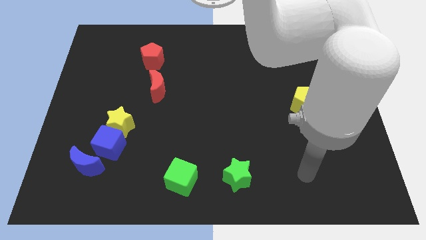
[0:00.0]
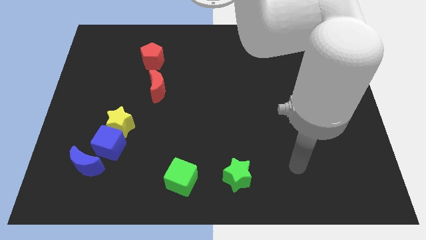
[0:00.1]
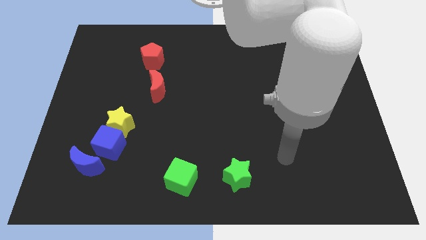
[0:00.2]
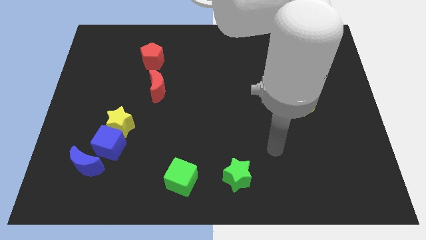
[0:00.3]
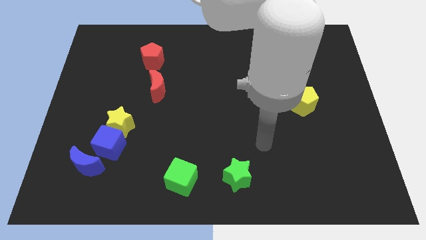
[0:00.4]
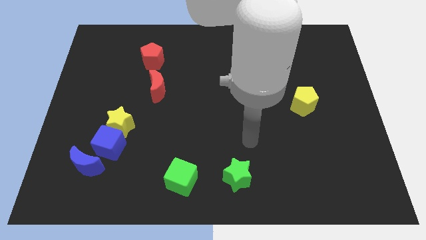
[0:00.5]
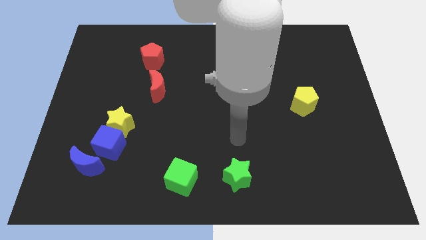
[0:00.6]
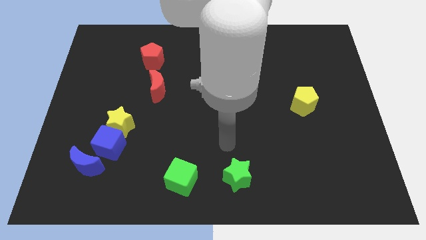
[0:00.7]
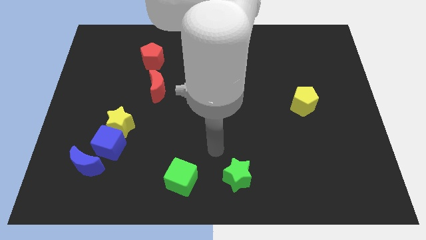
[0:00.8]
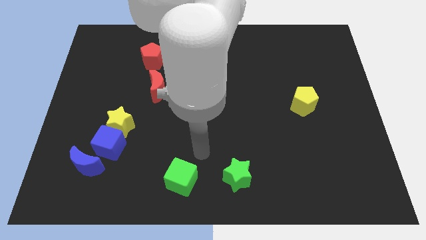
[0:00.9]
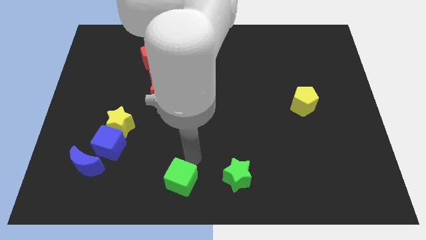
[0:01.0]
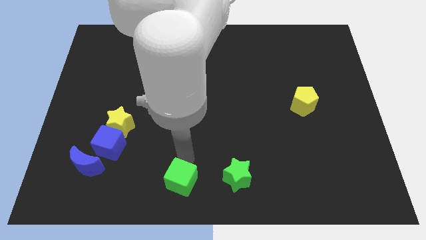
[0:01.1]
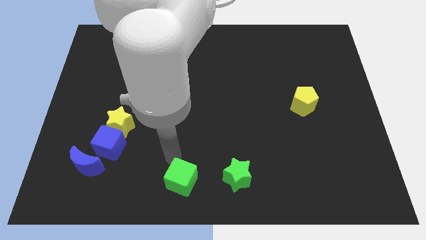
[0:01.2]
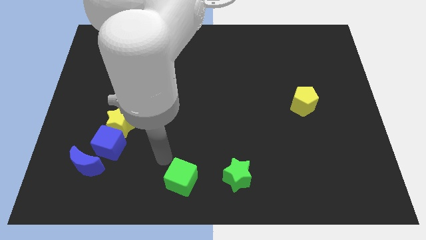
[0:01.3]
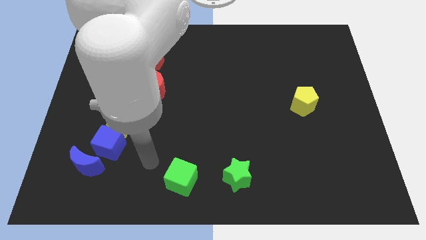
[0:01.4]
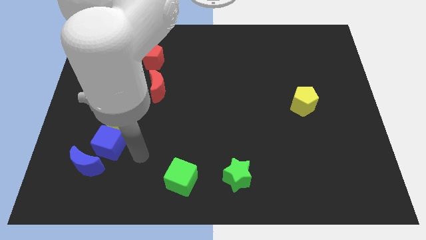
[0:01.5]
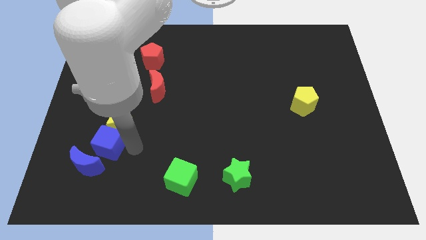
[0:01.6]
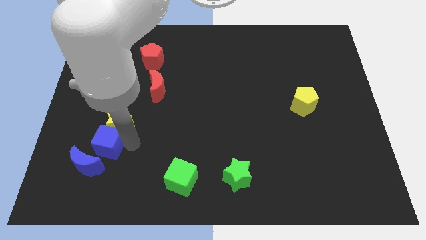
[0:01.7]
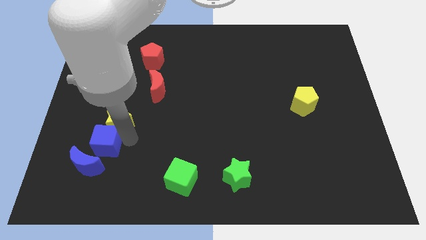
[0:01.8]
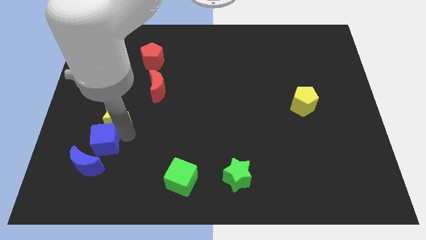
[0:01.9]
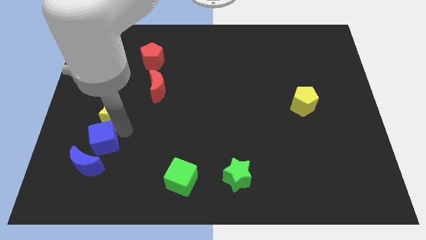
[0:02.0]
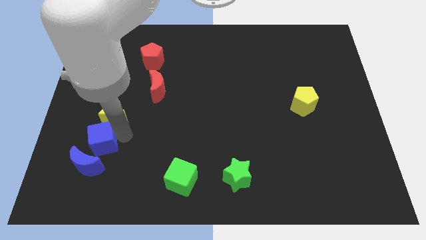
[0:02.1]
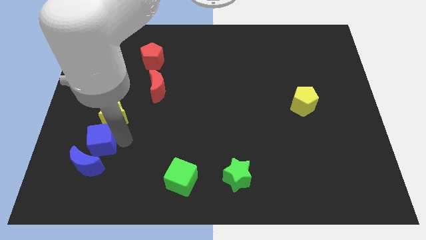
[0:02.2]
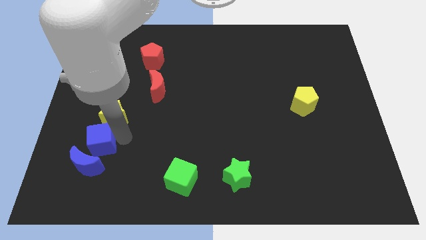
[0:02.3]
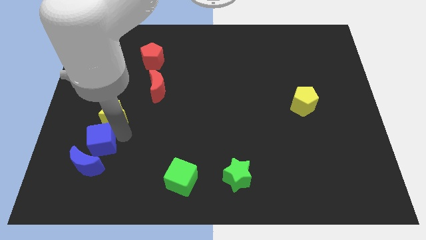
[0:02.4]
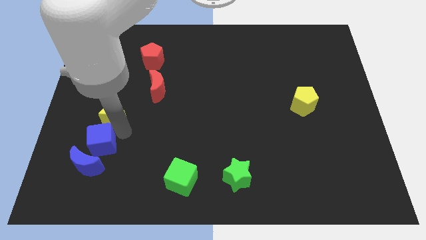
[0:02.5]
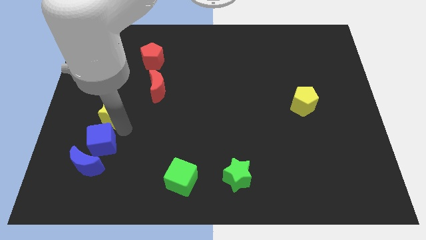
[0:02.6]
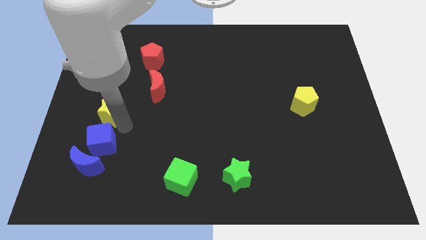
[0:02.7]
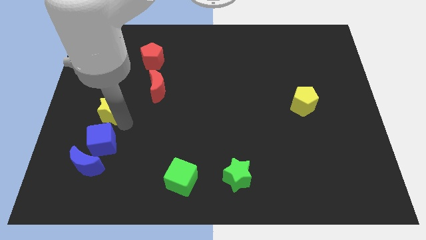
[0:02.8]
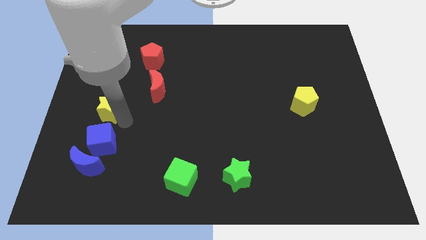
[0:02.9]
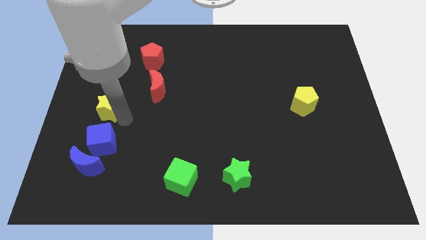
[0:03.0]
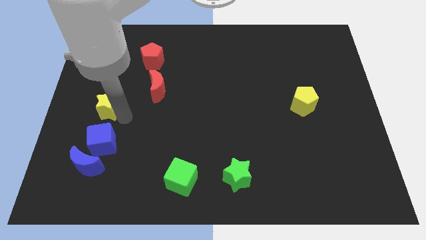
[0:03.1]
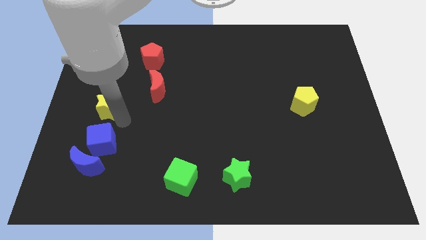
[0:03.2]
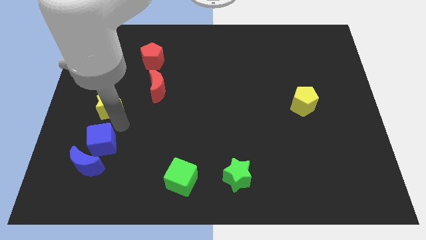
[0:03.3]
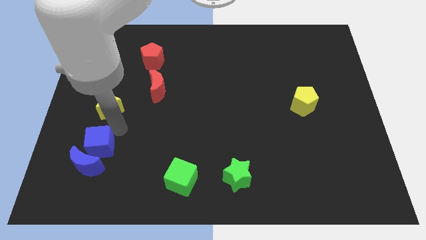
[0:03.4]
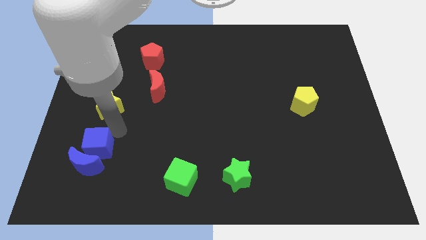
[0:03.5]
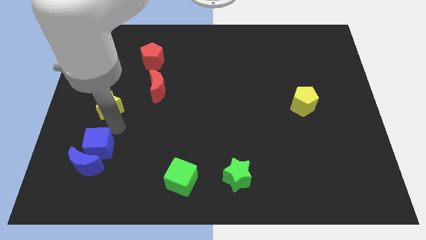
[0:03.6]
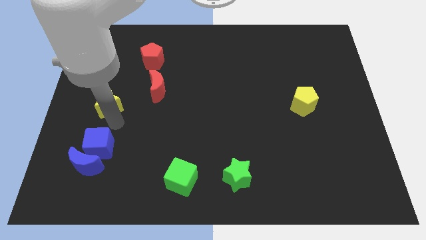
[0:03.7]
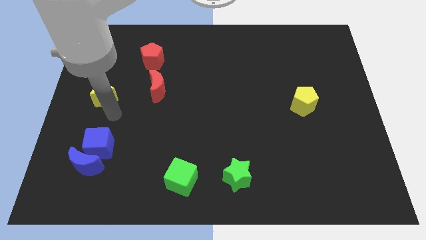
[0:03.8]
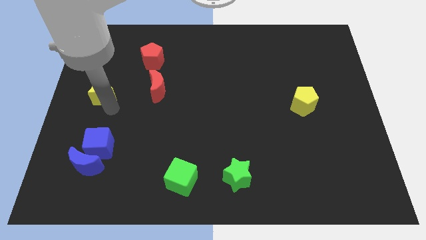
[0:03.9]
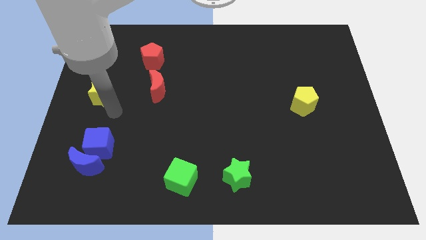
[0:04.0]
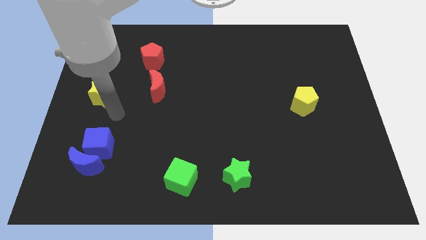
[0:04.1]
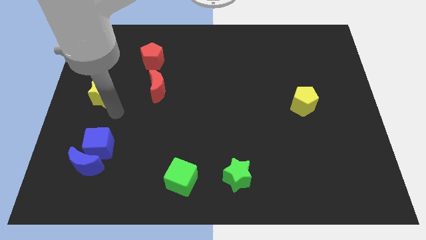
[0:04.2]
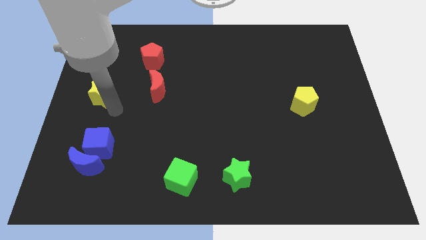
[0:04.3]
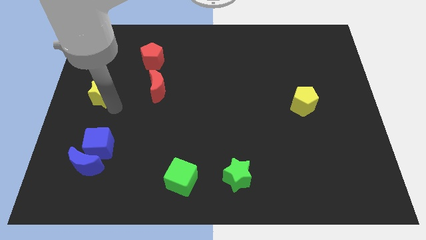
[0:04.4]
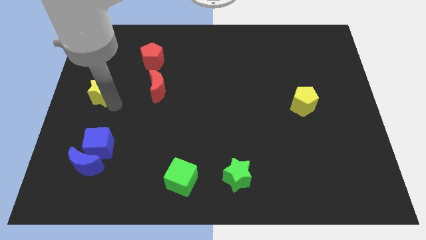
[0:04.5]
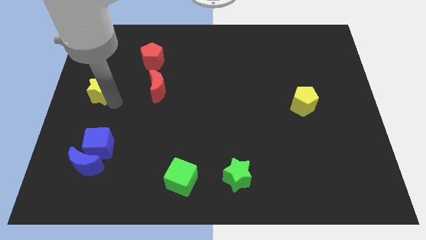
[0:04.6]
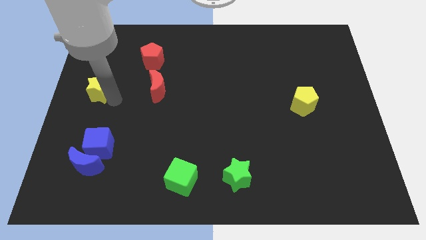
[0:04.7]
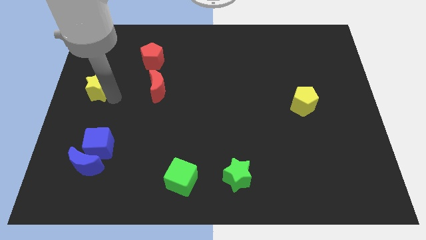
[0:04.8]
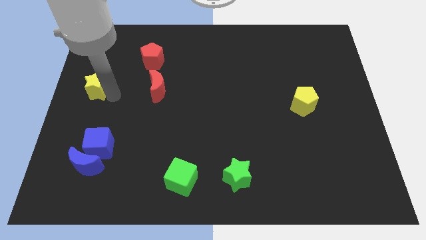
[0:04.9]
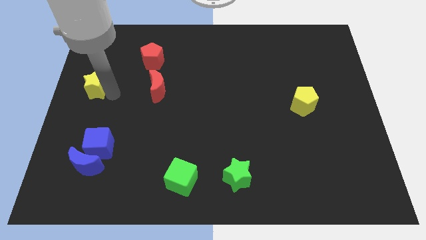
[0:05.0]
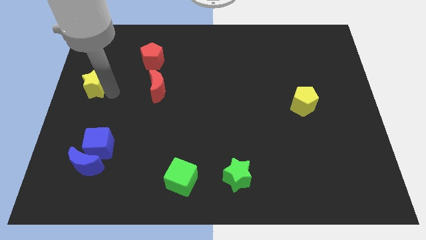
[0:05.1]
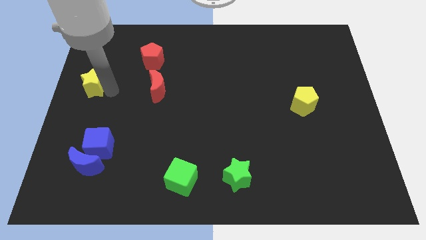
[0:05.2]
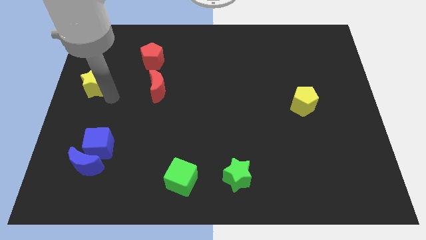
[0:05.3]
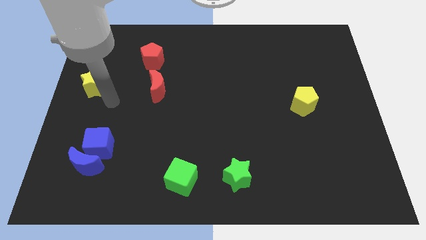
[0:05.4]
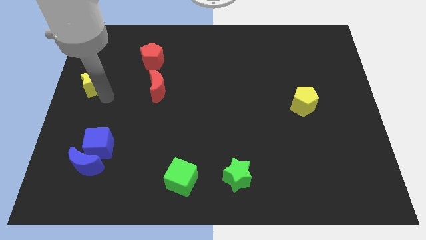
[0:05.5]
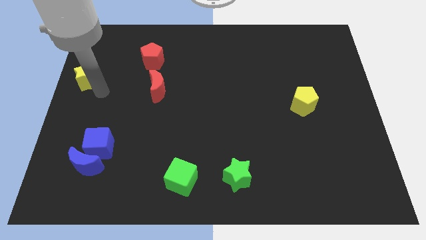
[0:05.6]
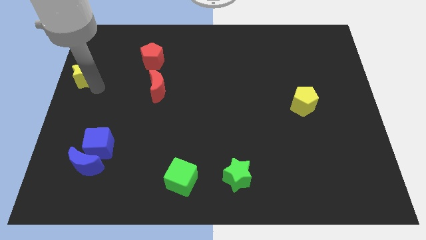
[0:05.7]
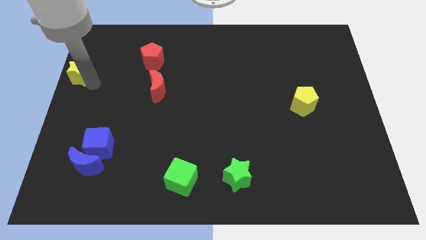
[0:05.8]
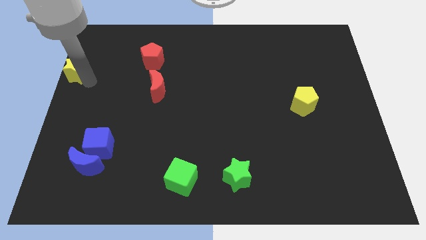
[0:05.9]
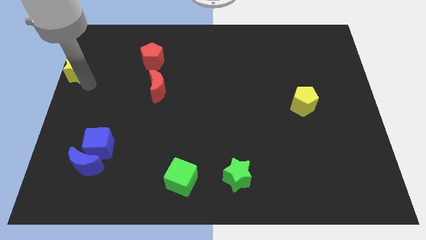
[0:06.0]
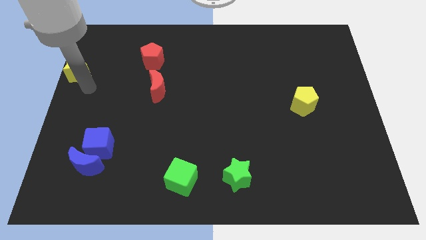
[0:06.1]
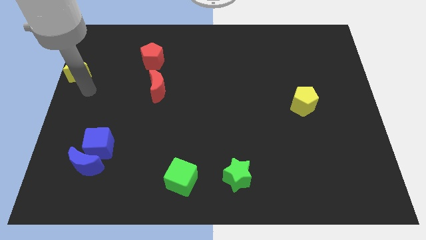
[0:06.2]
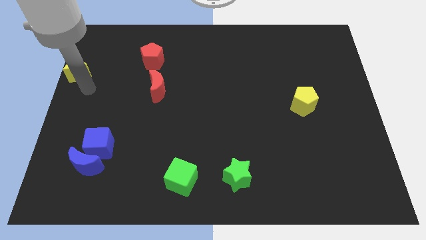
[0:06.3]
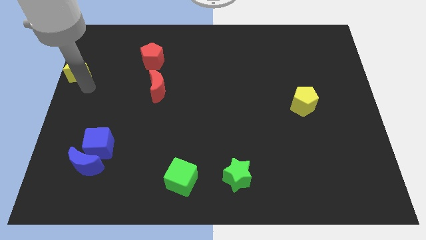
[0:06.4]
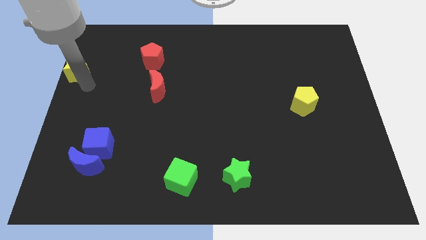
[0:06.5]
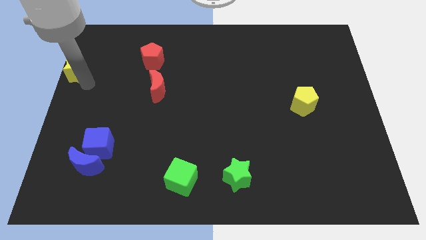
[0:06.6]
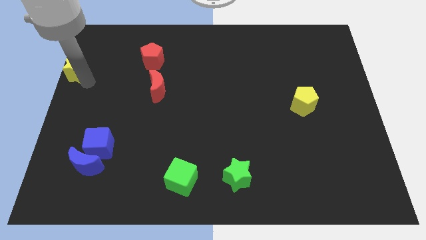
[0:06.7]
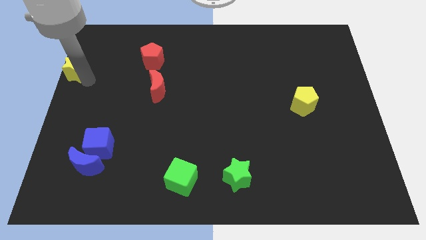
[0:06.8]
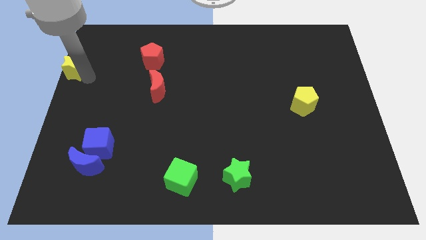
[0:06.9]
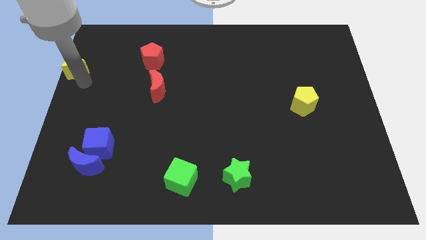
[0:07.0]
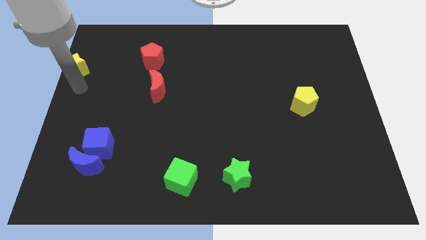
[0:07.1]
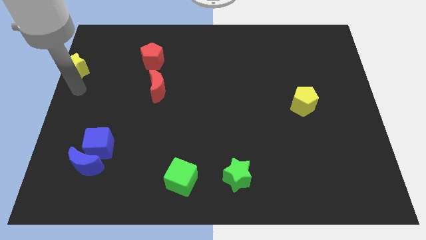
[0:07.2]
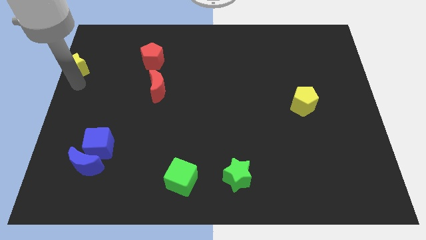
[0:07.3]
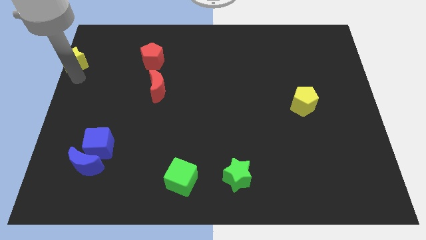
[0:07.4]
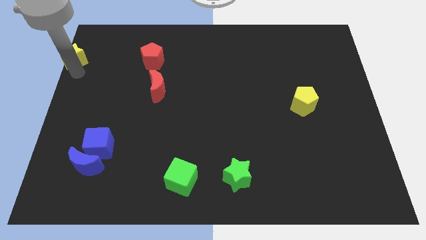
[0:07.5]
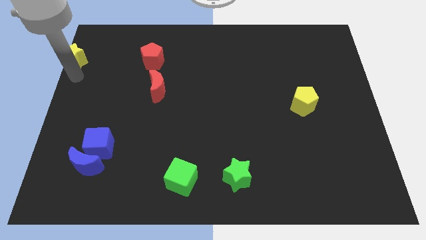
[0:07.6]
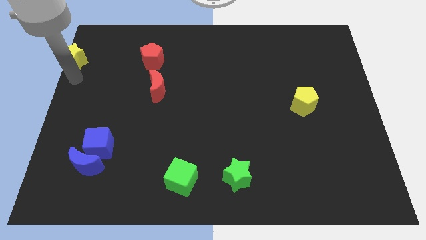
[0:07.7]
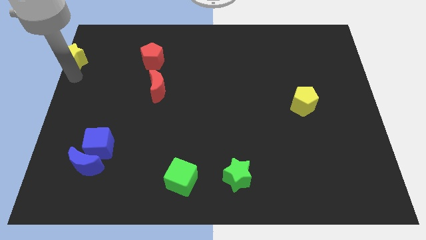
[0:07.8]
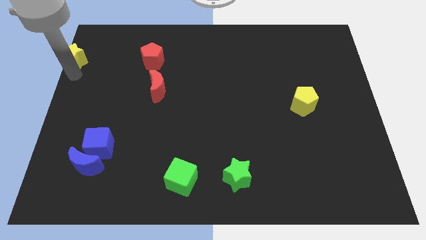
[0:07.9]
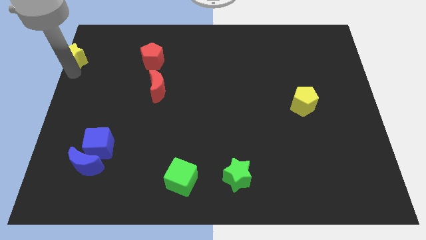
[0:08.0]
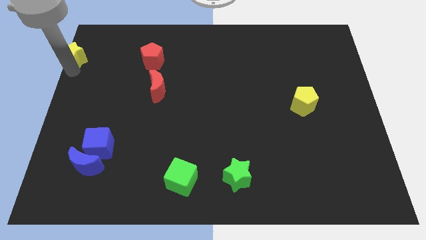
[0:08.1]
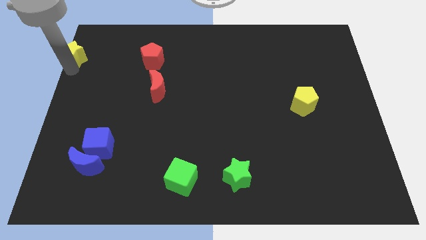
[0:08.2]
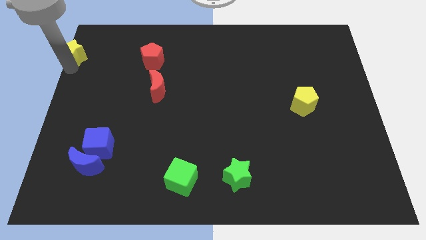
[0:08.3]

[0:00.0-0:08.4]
push the yellow star to the top left corner
